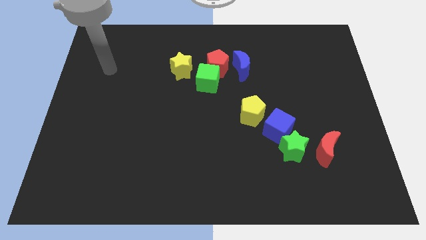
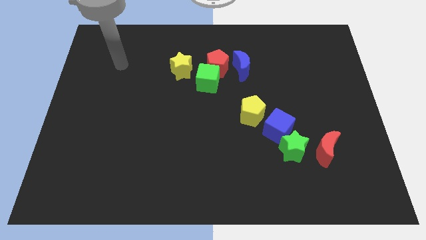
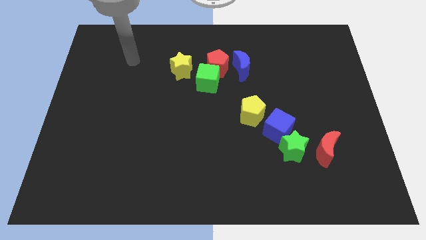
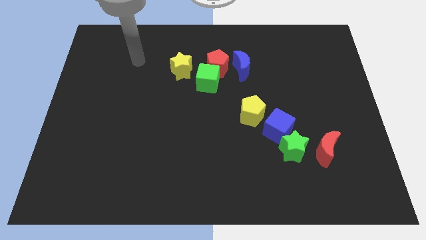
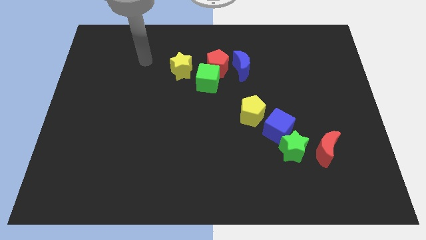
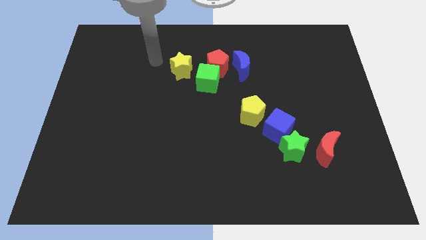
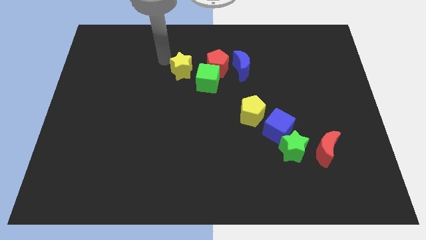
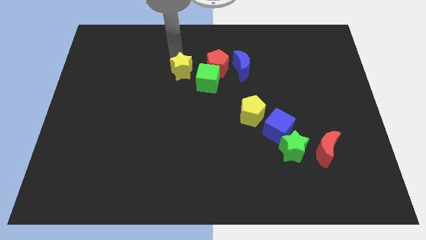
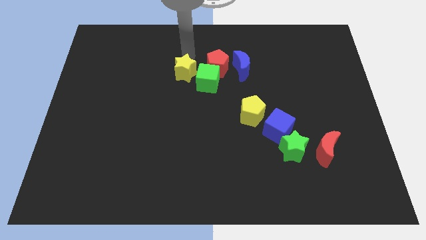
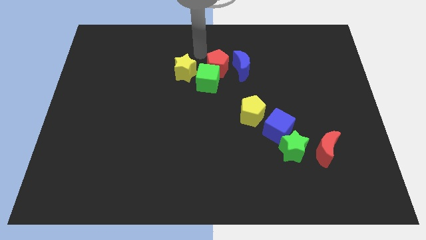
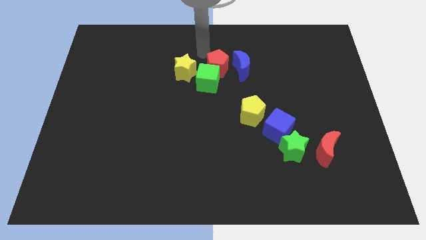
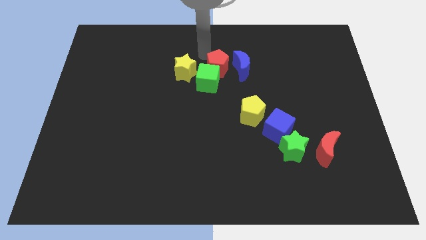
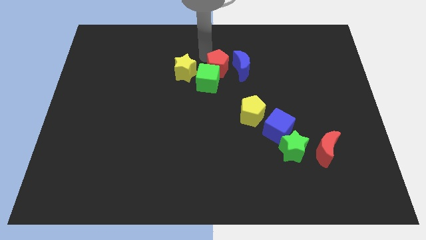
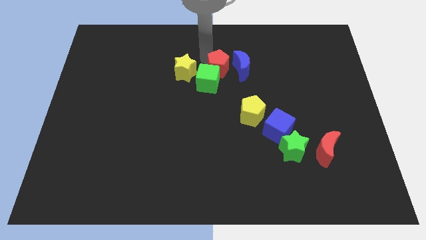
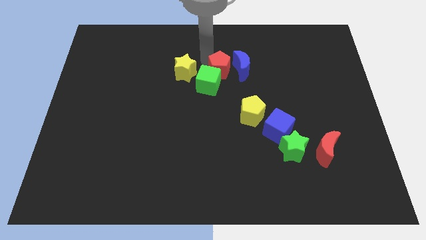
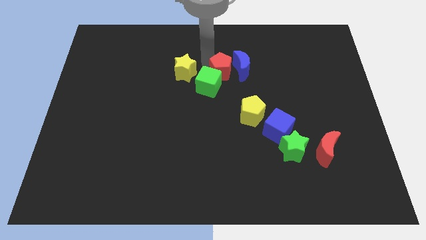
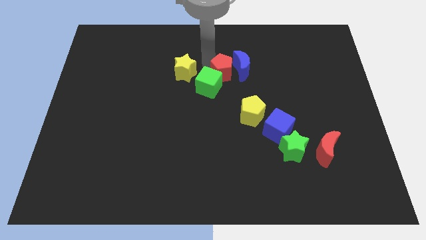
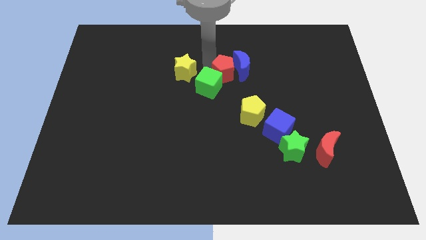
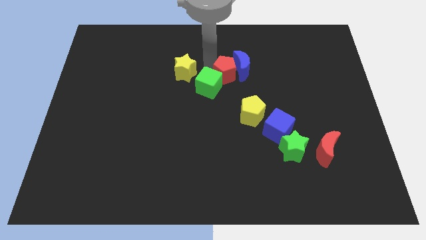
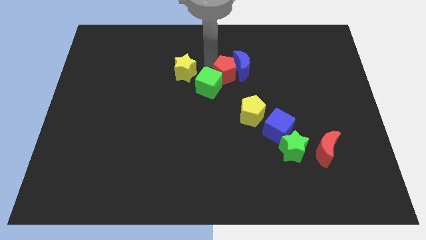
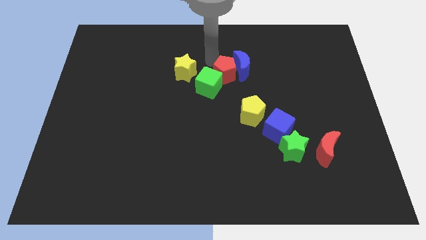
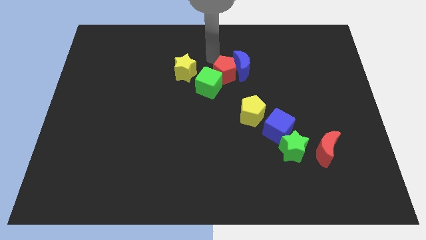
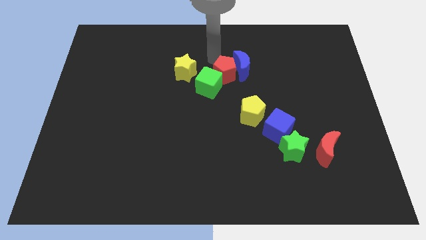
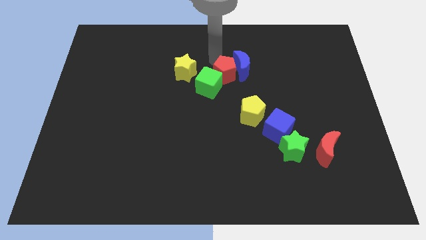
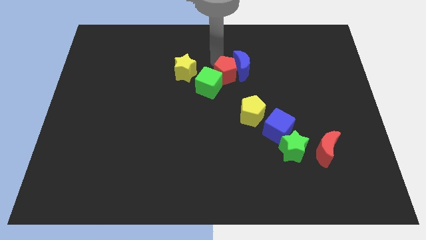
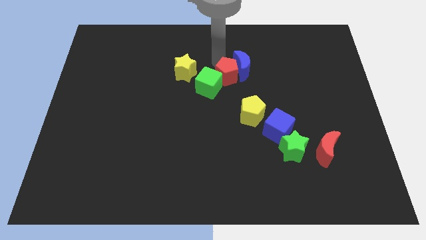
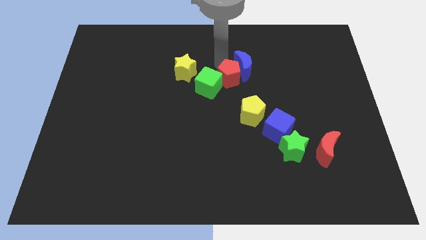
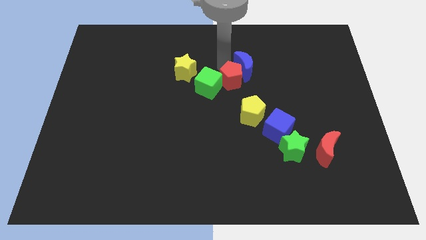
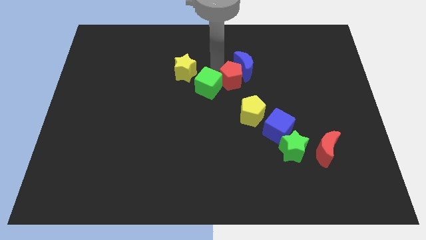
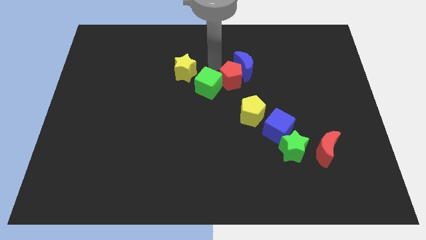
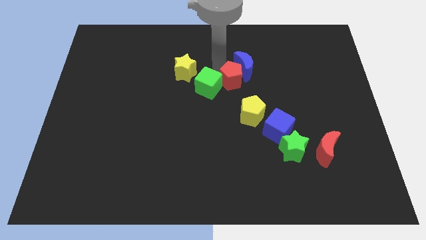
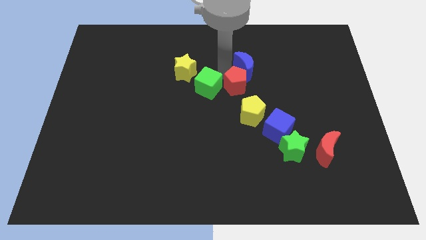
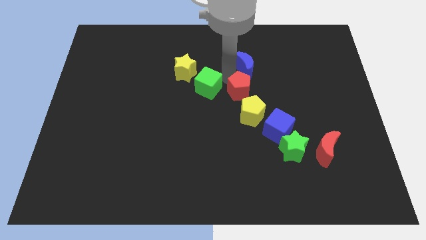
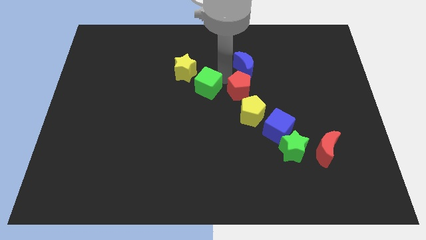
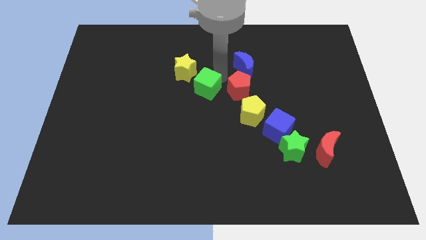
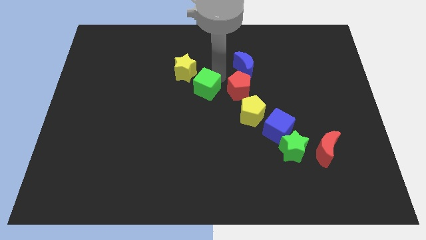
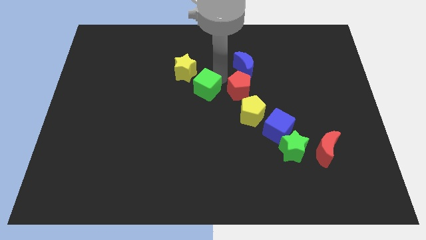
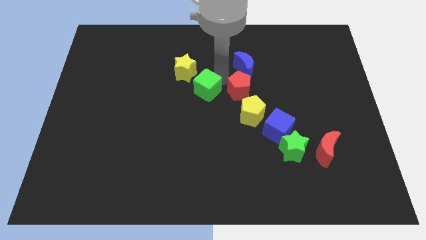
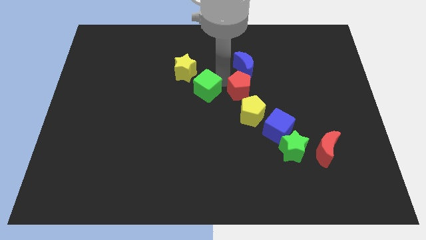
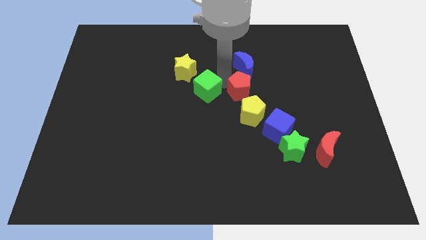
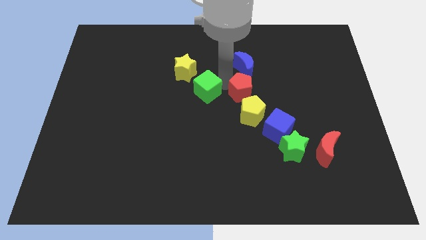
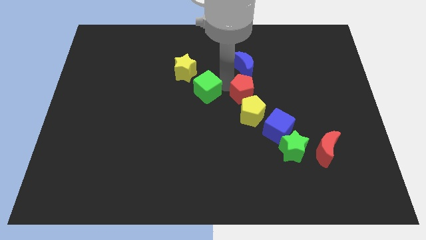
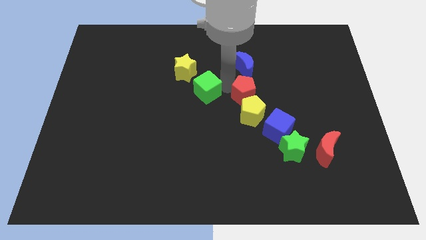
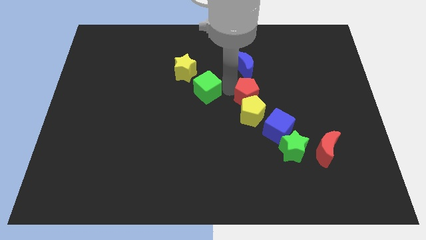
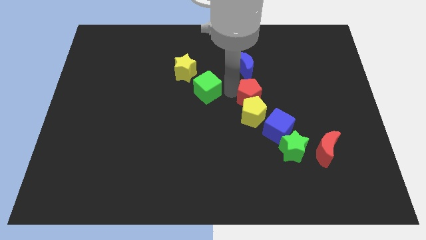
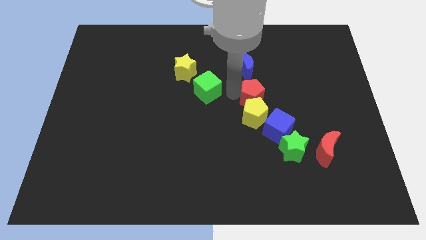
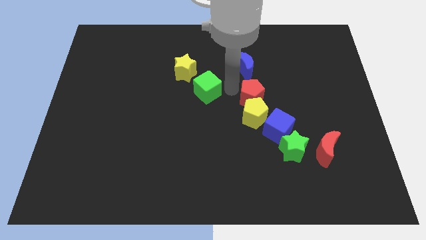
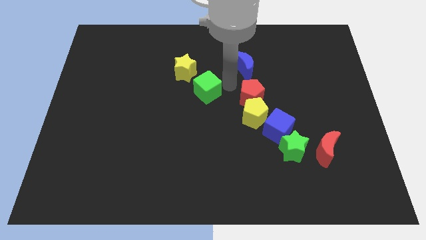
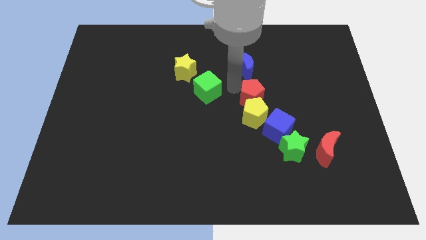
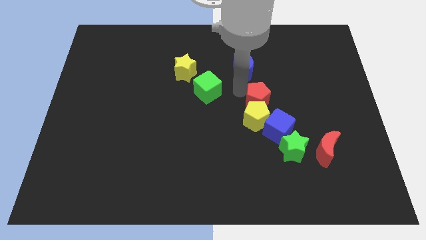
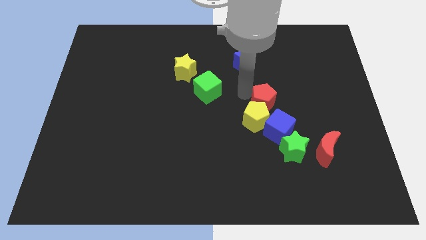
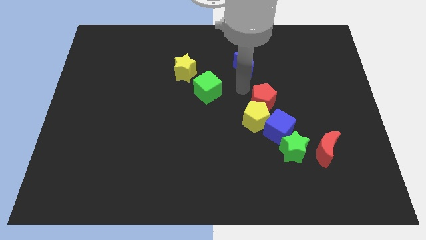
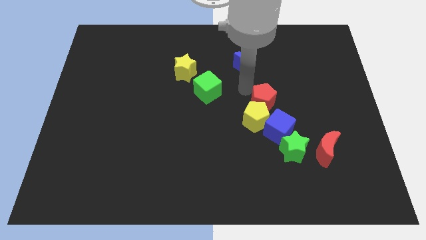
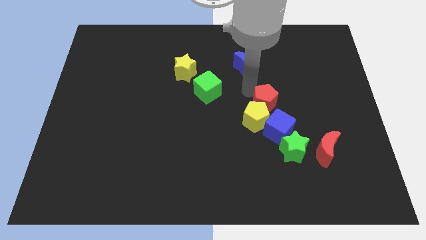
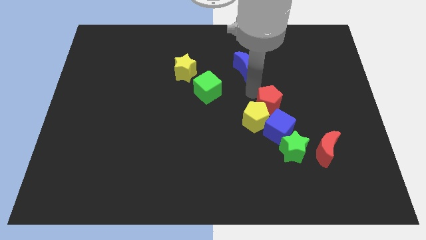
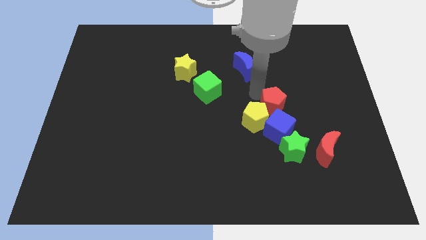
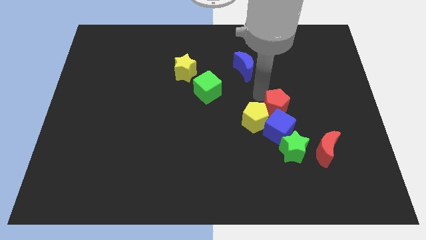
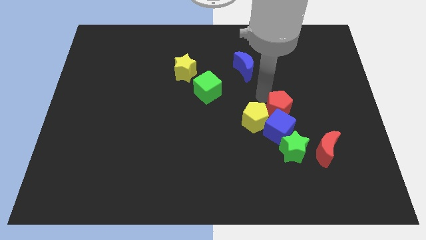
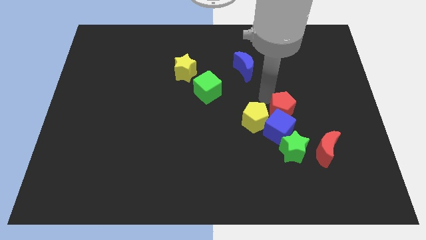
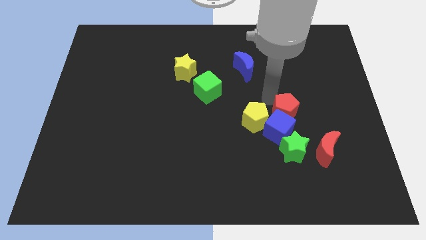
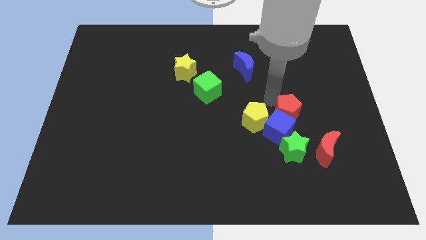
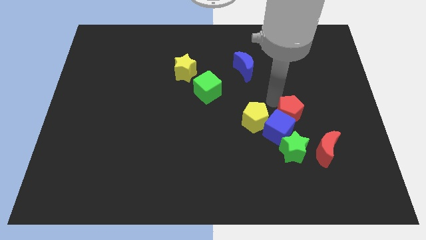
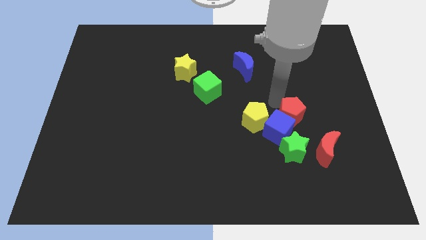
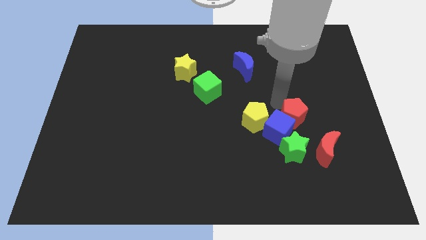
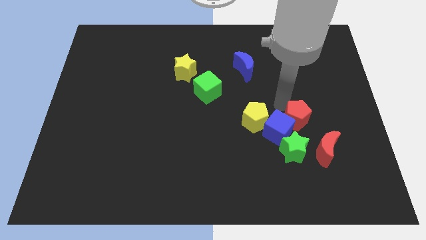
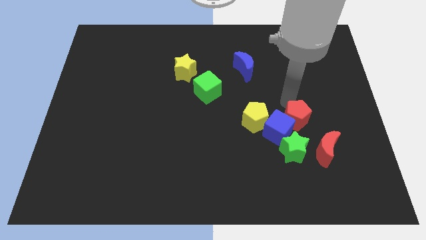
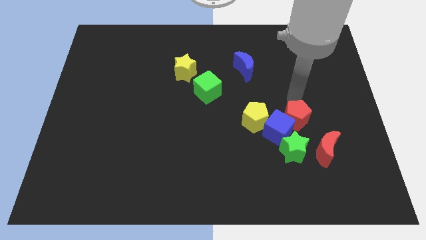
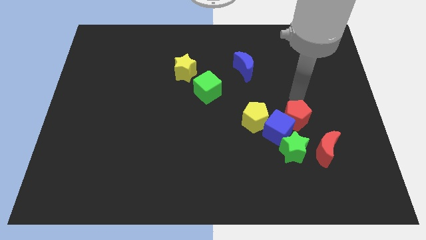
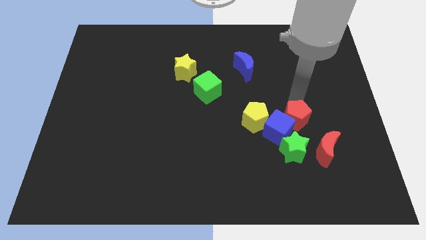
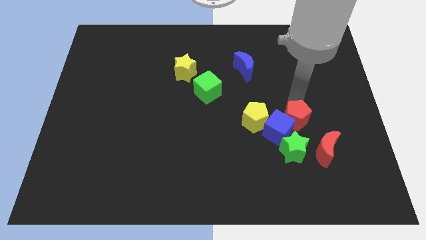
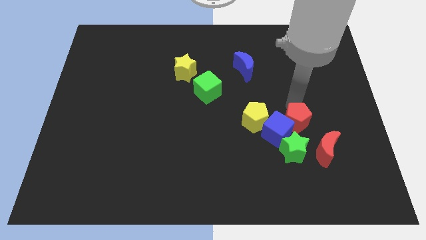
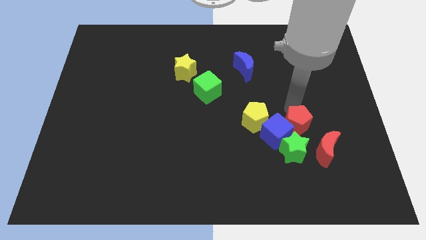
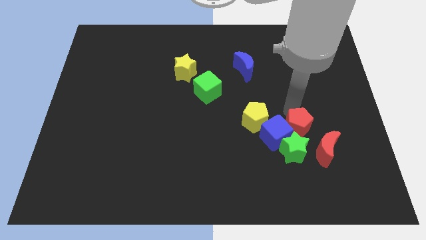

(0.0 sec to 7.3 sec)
slide the red pentagon towards the green star
